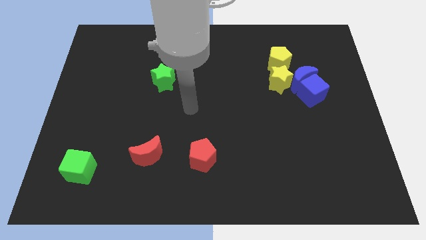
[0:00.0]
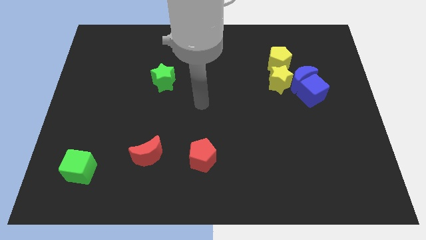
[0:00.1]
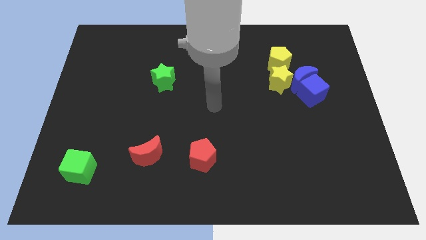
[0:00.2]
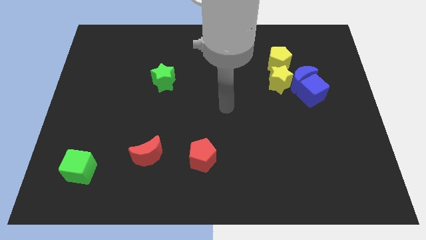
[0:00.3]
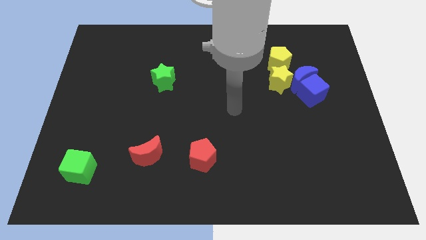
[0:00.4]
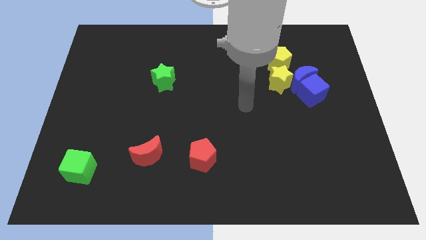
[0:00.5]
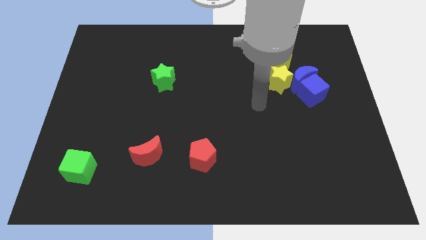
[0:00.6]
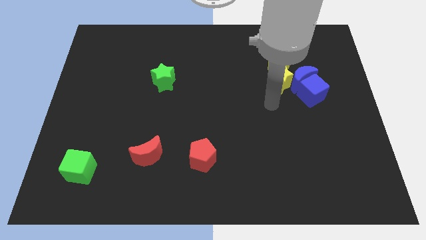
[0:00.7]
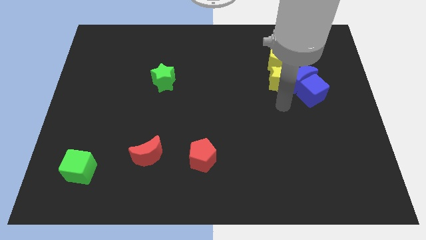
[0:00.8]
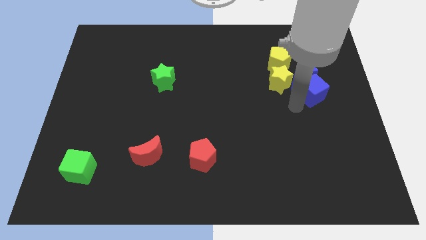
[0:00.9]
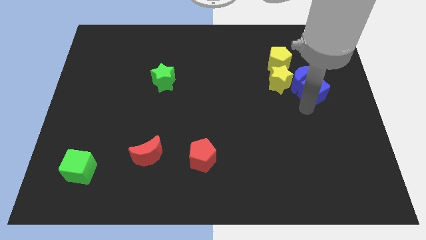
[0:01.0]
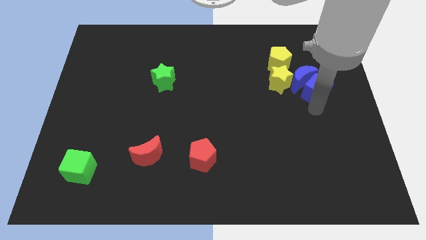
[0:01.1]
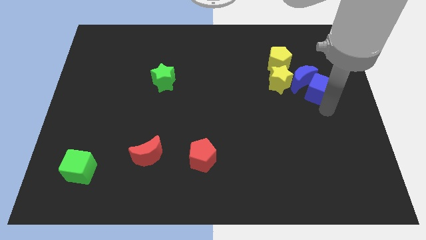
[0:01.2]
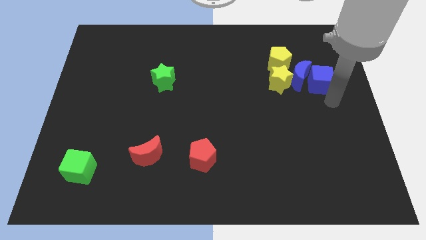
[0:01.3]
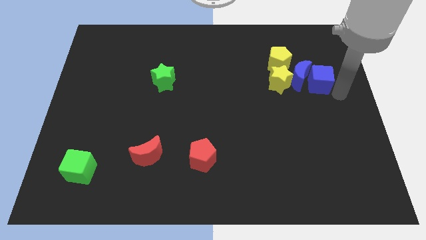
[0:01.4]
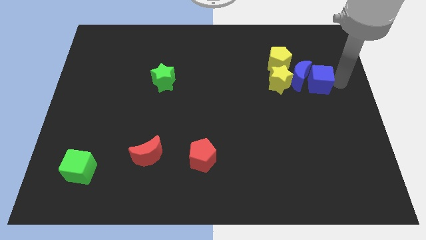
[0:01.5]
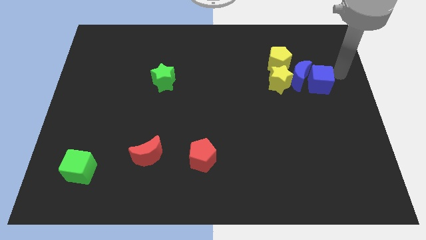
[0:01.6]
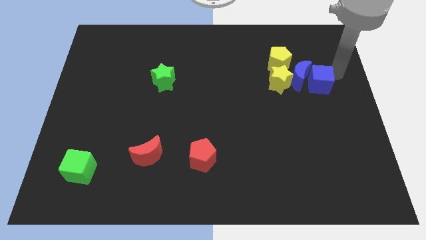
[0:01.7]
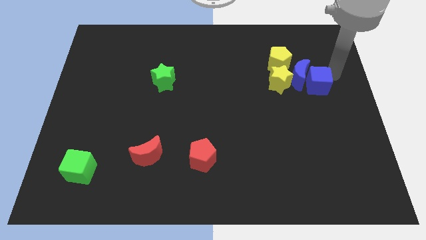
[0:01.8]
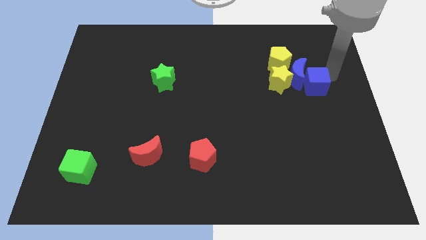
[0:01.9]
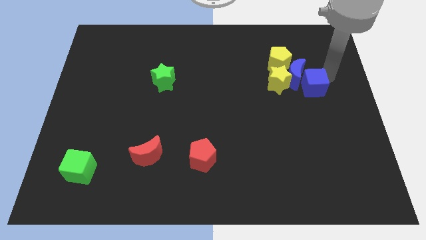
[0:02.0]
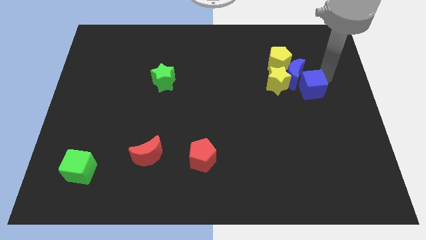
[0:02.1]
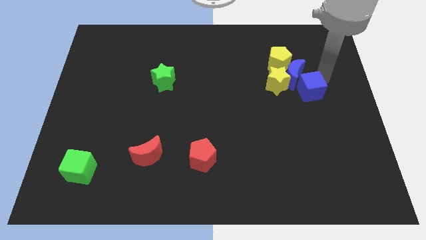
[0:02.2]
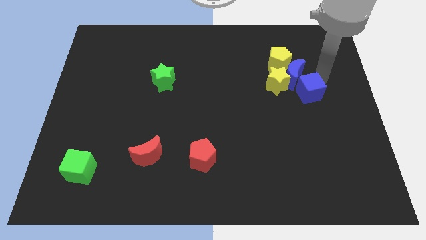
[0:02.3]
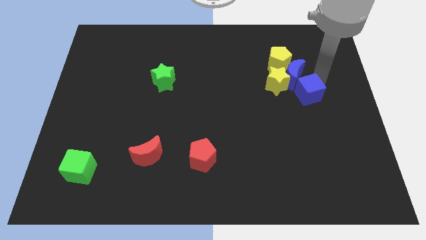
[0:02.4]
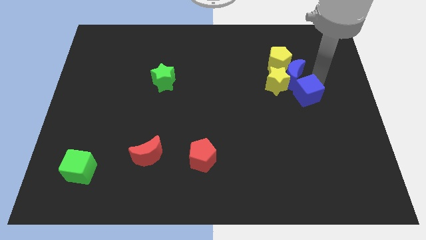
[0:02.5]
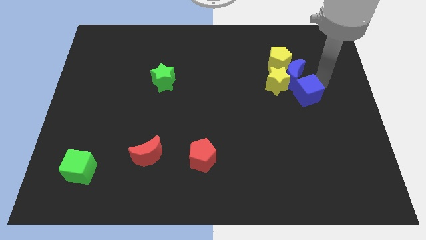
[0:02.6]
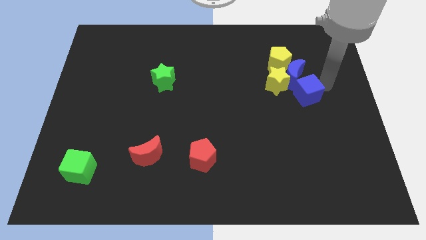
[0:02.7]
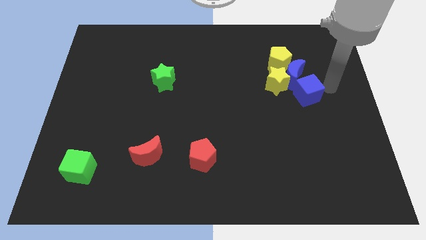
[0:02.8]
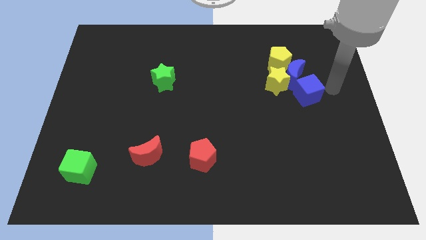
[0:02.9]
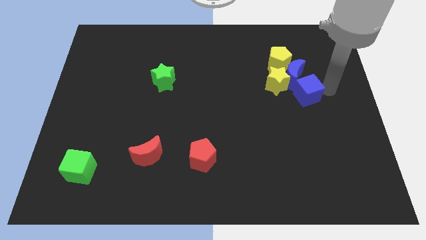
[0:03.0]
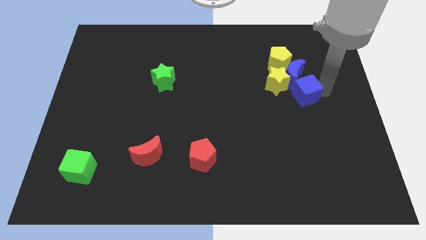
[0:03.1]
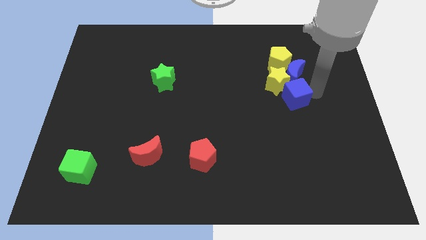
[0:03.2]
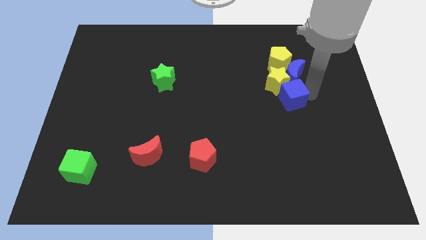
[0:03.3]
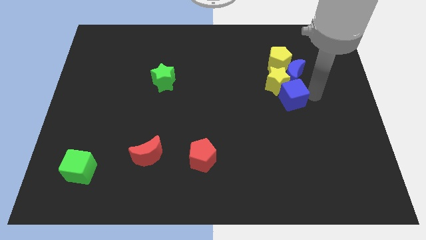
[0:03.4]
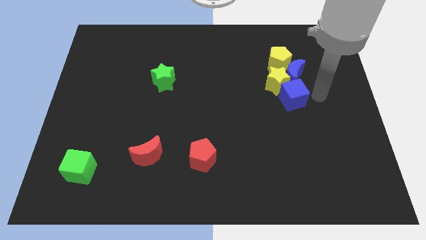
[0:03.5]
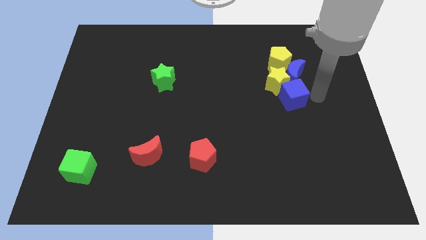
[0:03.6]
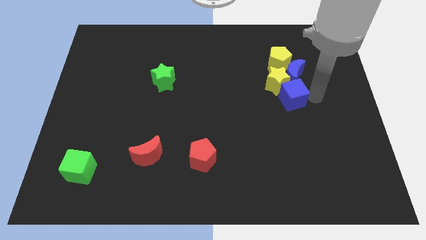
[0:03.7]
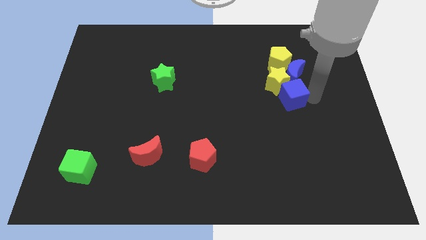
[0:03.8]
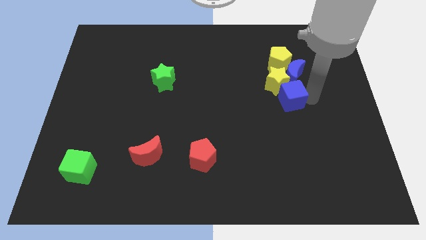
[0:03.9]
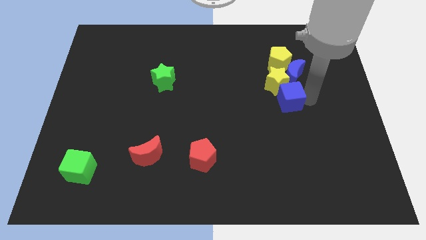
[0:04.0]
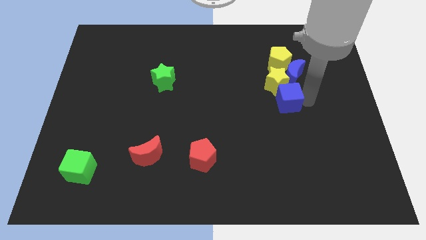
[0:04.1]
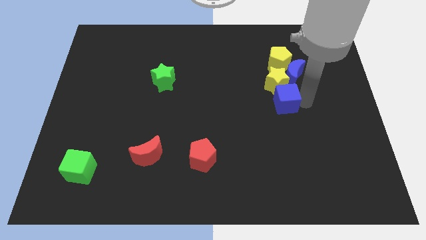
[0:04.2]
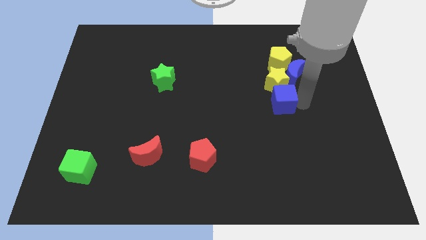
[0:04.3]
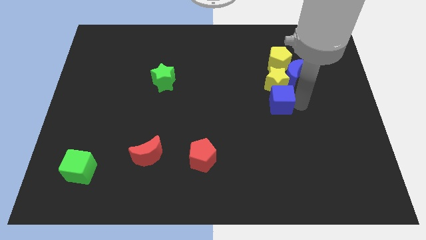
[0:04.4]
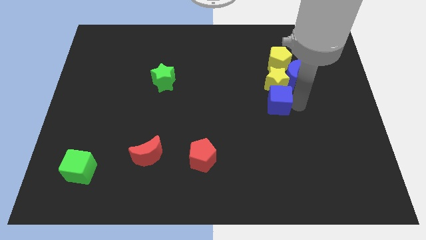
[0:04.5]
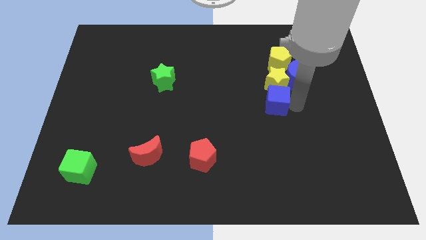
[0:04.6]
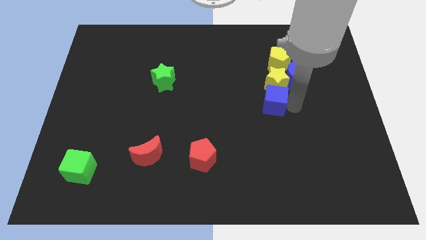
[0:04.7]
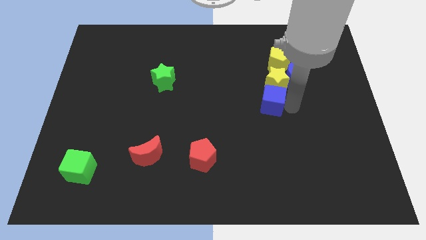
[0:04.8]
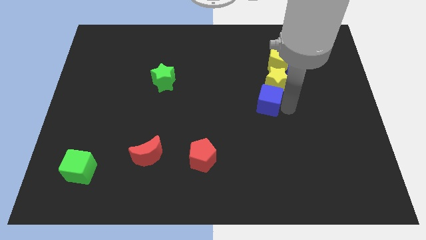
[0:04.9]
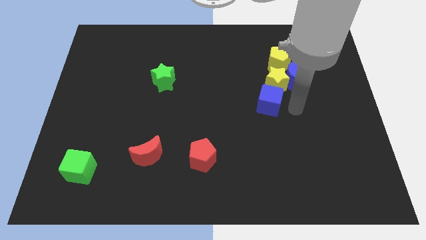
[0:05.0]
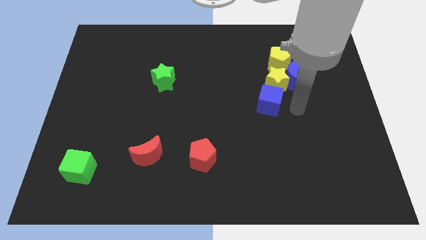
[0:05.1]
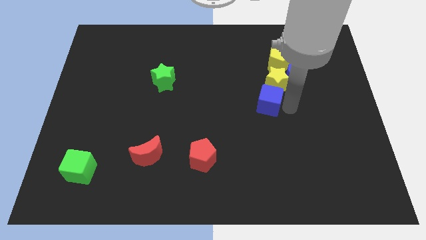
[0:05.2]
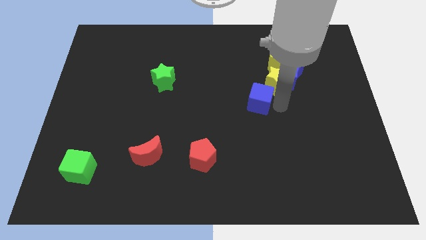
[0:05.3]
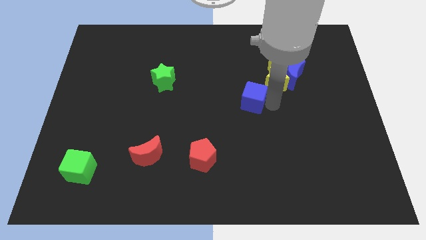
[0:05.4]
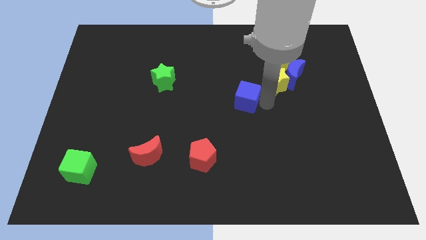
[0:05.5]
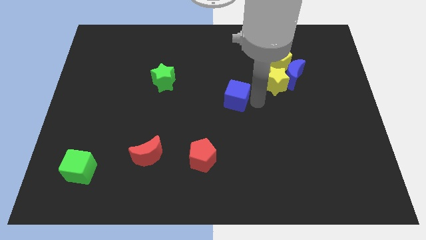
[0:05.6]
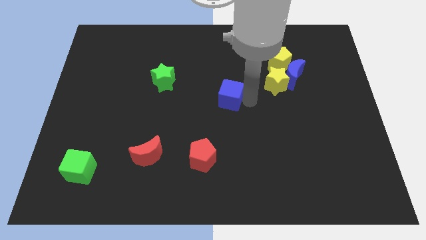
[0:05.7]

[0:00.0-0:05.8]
push the blue cube to the left

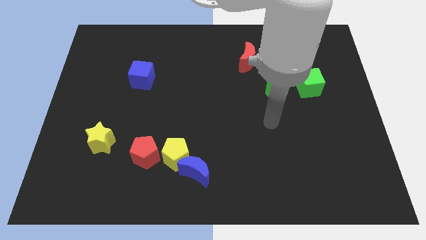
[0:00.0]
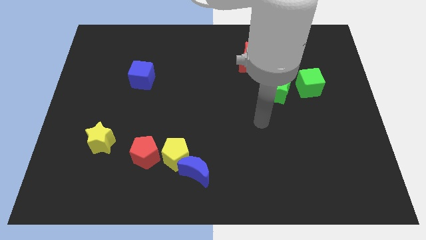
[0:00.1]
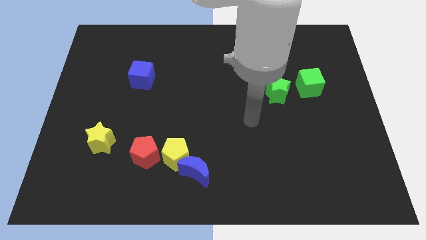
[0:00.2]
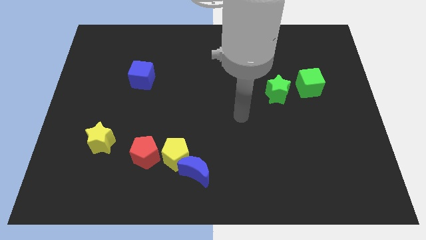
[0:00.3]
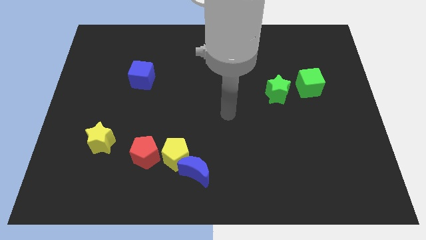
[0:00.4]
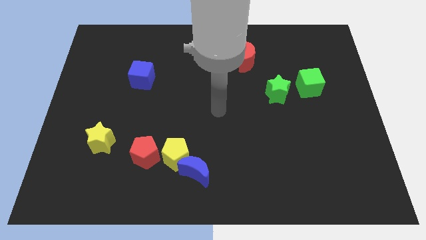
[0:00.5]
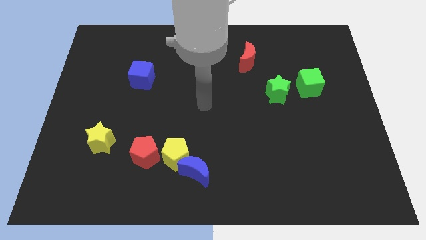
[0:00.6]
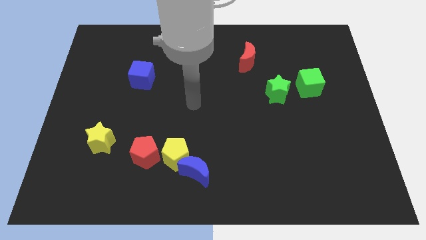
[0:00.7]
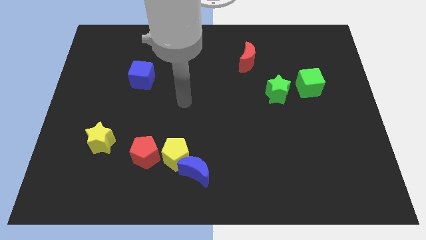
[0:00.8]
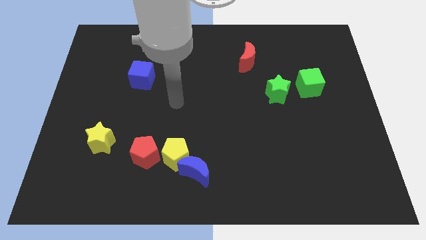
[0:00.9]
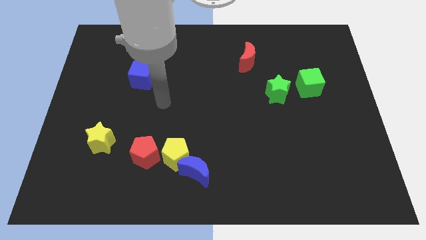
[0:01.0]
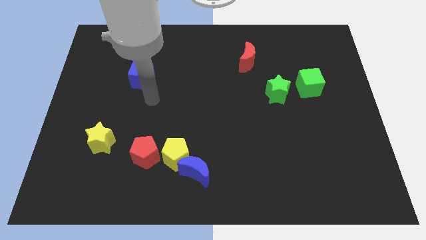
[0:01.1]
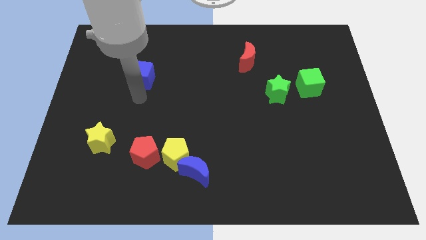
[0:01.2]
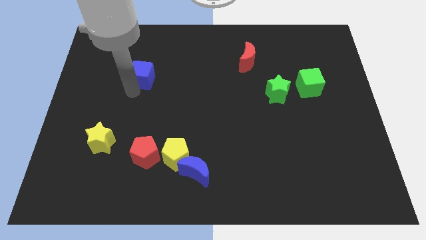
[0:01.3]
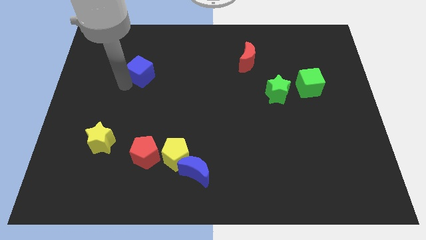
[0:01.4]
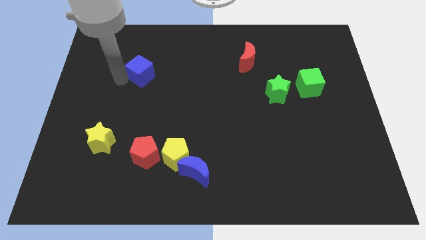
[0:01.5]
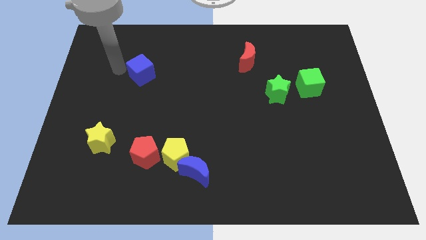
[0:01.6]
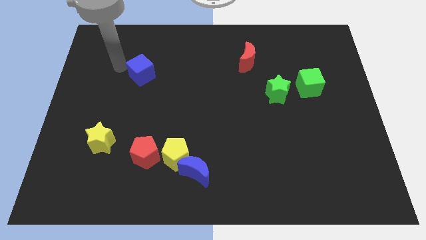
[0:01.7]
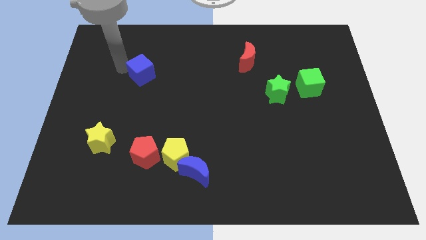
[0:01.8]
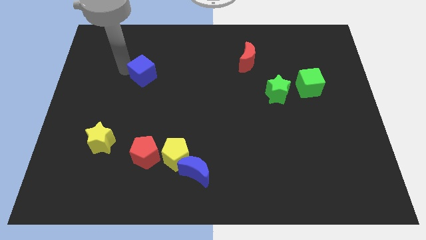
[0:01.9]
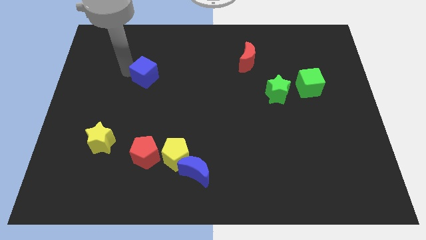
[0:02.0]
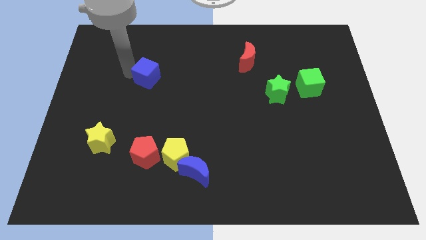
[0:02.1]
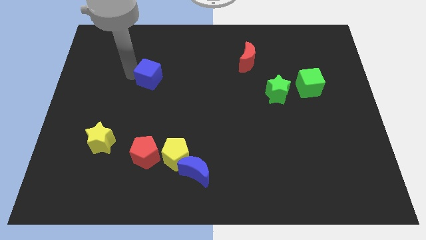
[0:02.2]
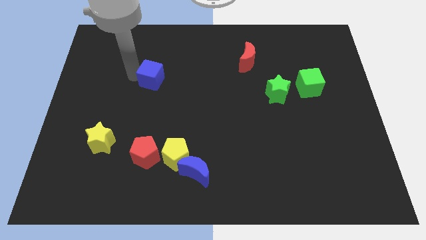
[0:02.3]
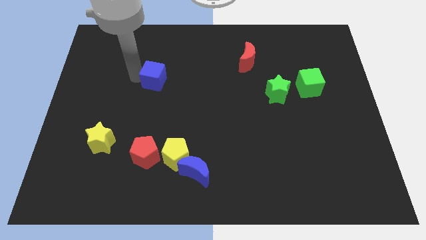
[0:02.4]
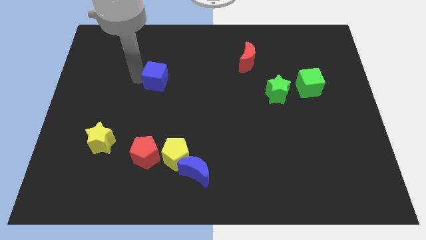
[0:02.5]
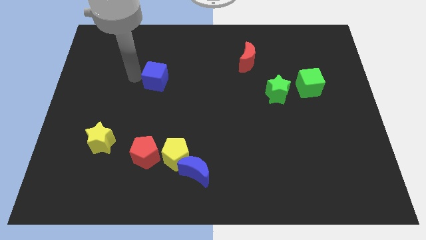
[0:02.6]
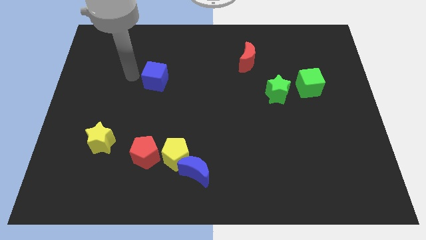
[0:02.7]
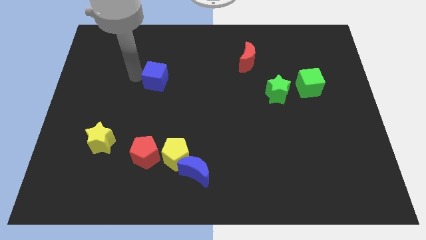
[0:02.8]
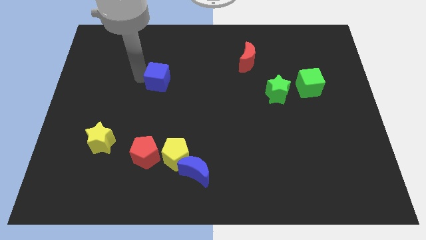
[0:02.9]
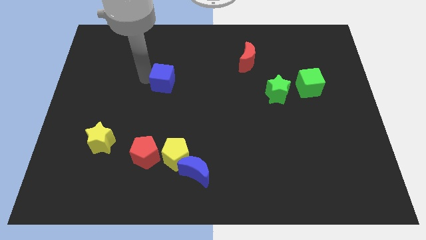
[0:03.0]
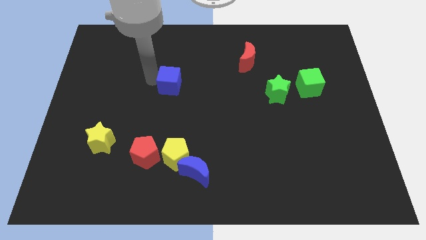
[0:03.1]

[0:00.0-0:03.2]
slightly slide the blue cube right
